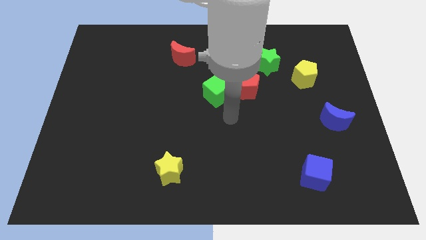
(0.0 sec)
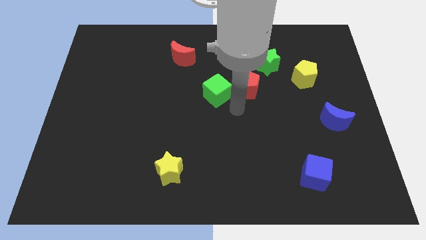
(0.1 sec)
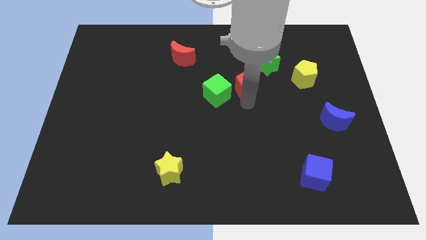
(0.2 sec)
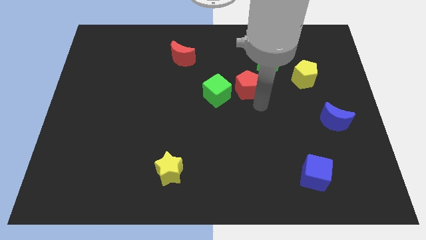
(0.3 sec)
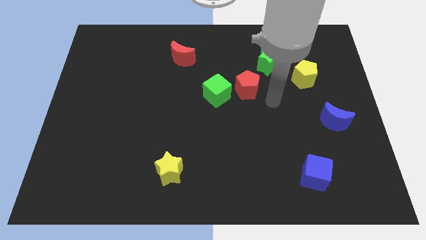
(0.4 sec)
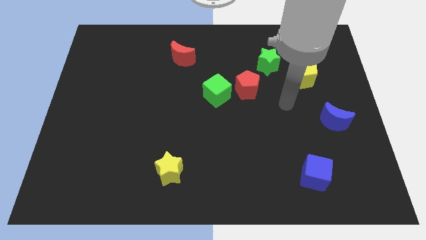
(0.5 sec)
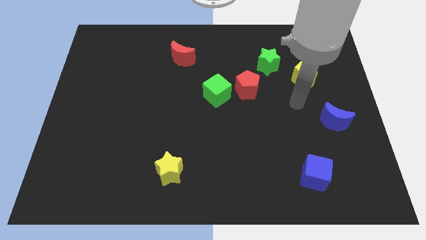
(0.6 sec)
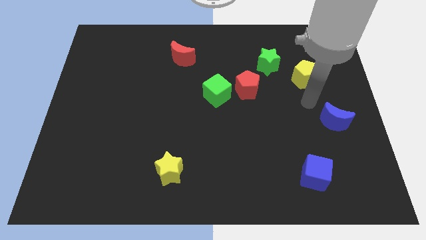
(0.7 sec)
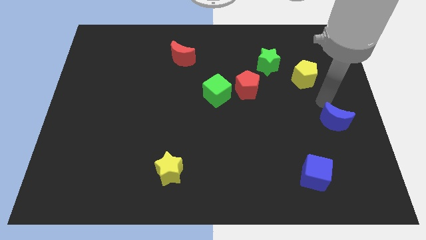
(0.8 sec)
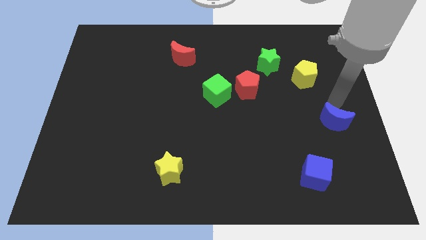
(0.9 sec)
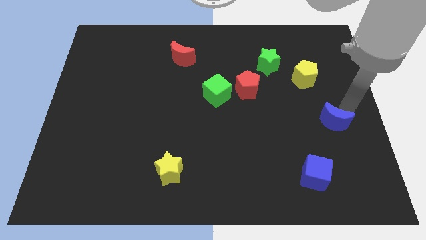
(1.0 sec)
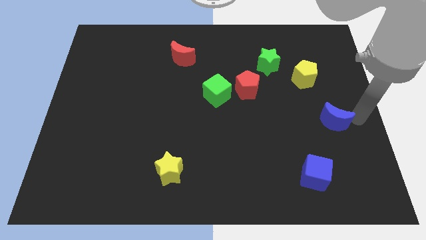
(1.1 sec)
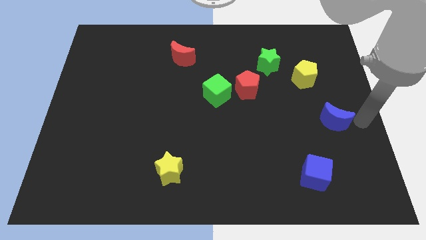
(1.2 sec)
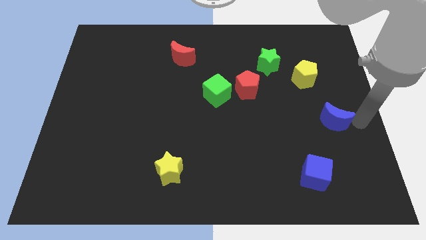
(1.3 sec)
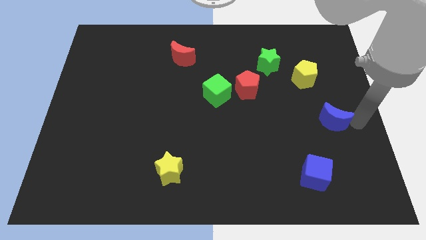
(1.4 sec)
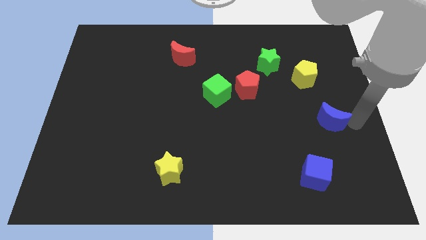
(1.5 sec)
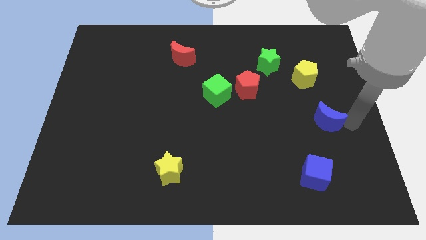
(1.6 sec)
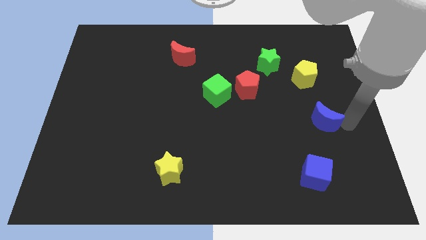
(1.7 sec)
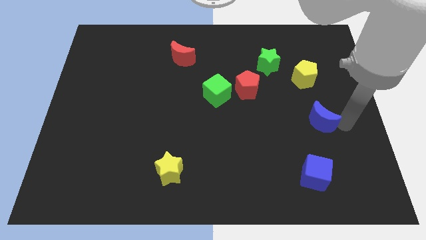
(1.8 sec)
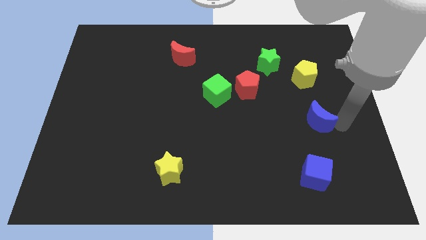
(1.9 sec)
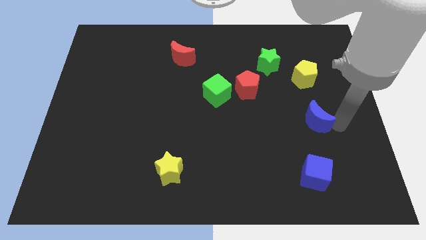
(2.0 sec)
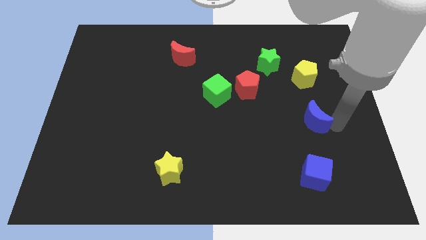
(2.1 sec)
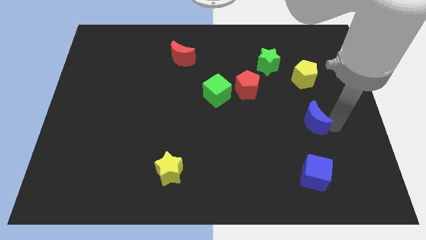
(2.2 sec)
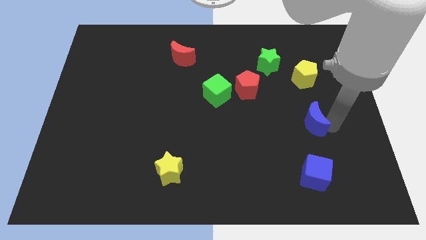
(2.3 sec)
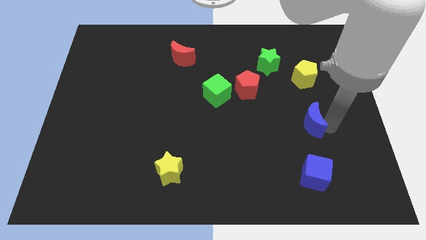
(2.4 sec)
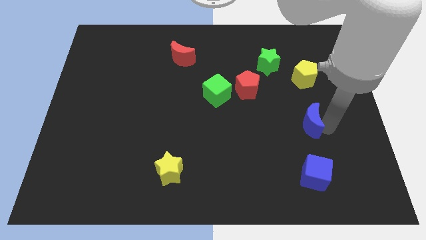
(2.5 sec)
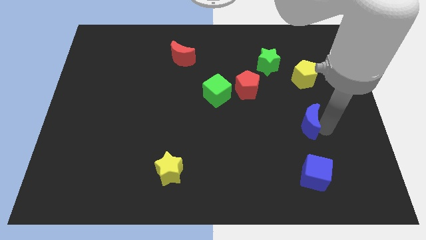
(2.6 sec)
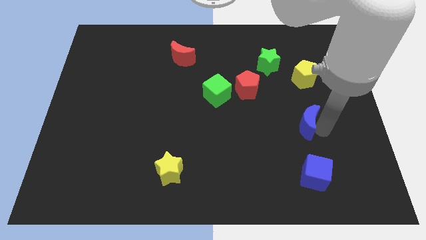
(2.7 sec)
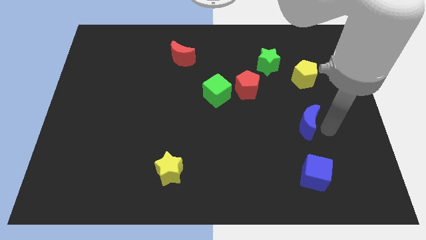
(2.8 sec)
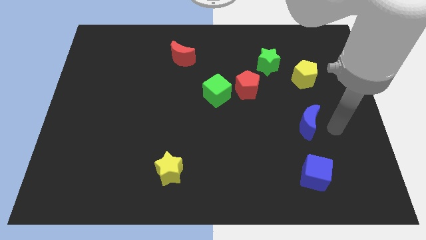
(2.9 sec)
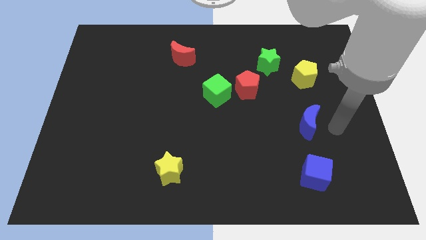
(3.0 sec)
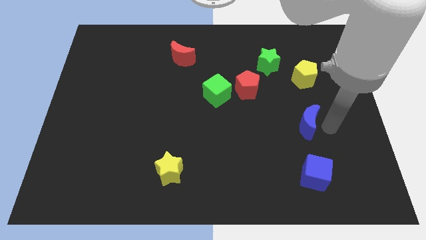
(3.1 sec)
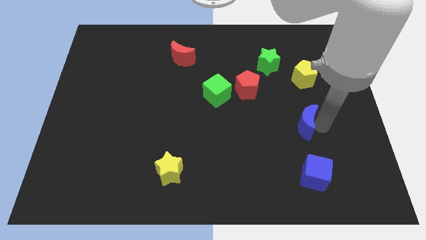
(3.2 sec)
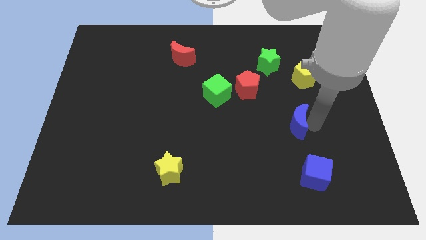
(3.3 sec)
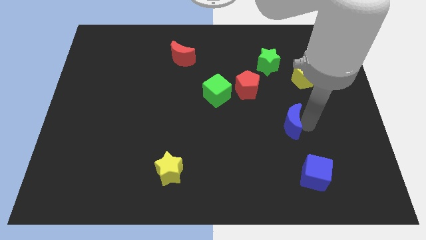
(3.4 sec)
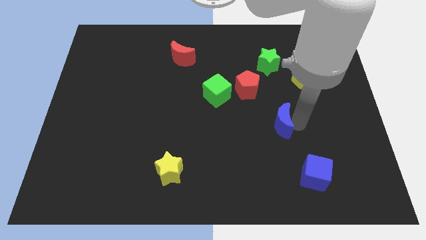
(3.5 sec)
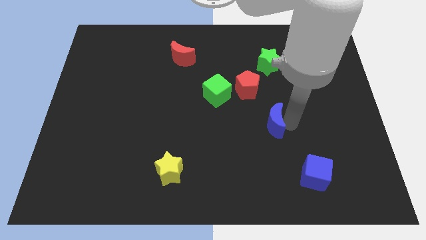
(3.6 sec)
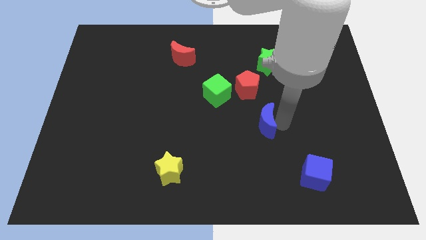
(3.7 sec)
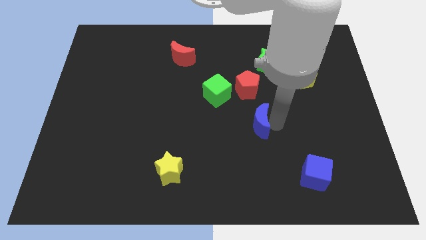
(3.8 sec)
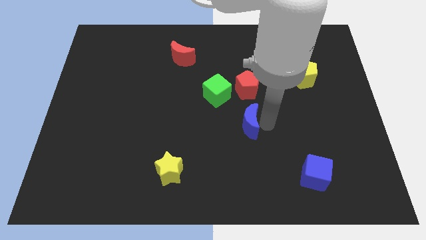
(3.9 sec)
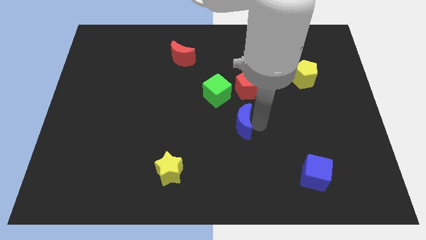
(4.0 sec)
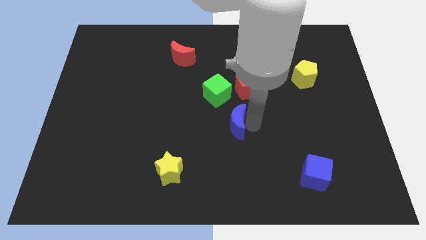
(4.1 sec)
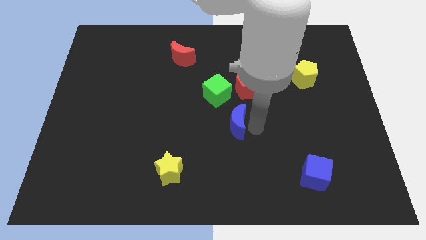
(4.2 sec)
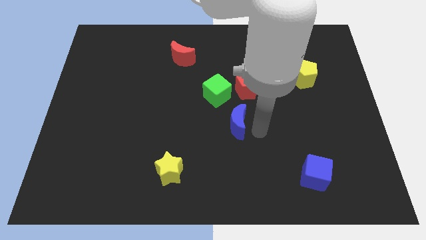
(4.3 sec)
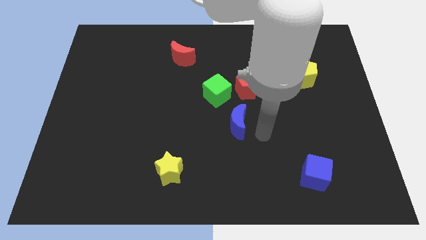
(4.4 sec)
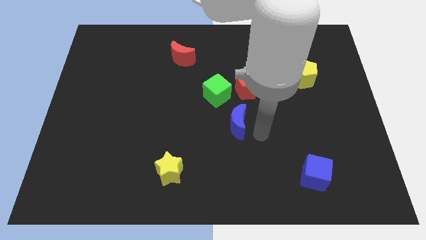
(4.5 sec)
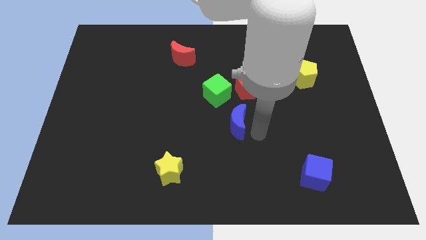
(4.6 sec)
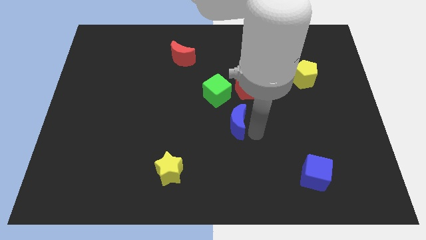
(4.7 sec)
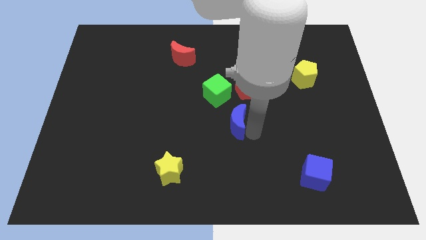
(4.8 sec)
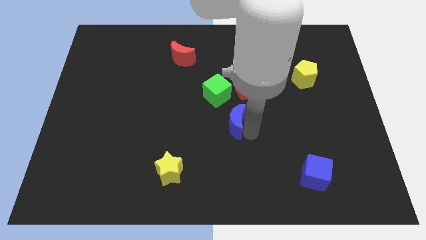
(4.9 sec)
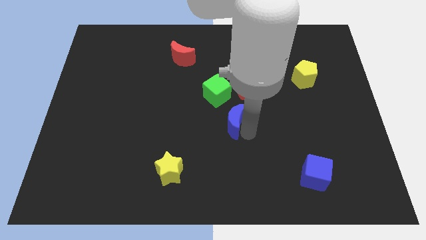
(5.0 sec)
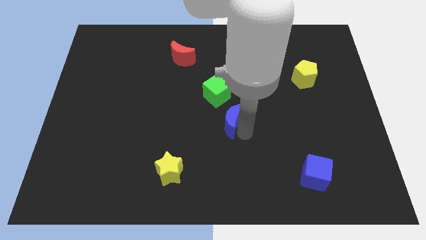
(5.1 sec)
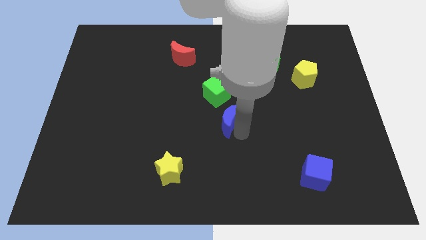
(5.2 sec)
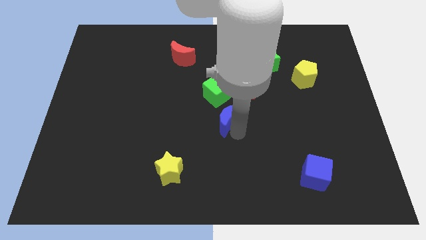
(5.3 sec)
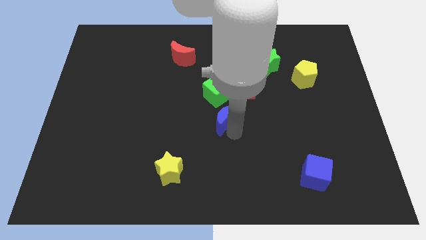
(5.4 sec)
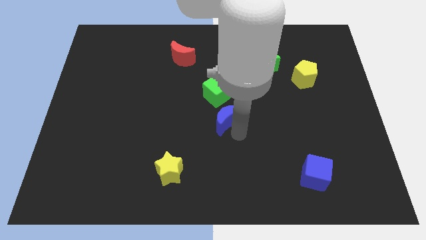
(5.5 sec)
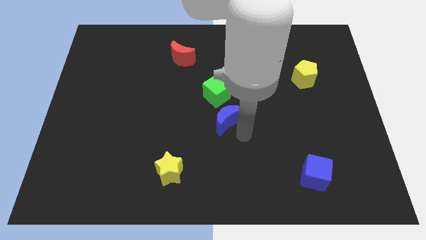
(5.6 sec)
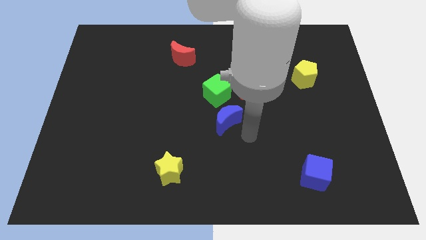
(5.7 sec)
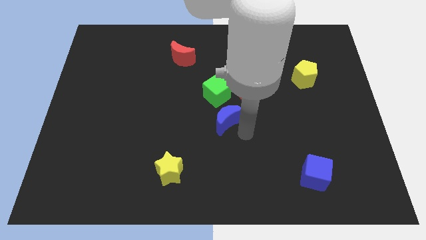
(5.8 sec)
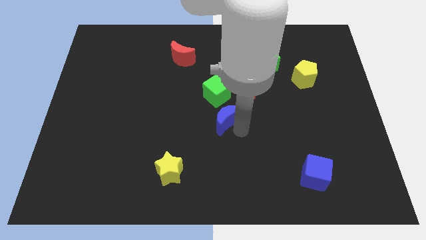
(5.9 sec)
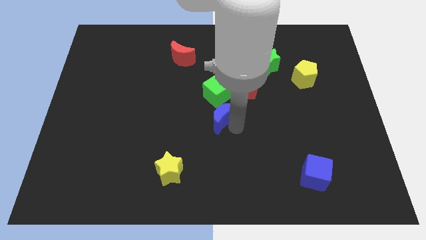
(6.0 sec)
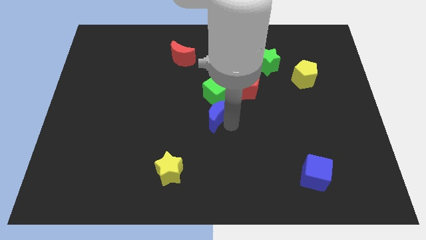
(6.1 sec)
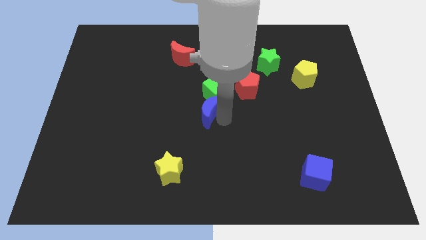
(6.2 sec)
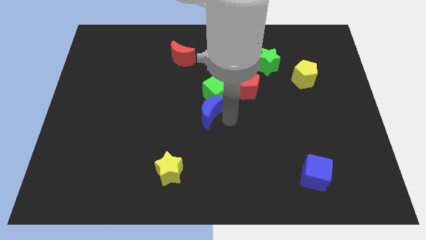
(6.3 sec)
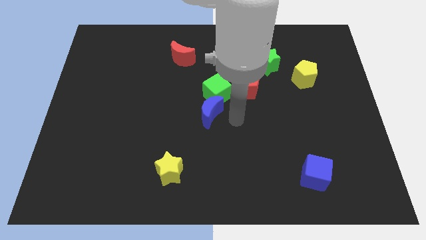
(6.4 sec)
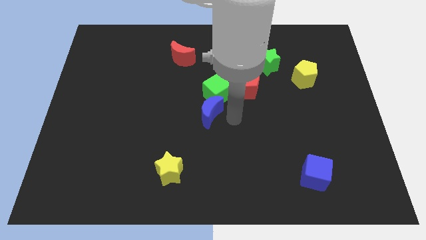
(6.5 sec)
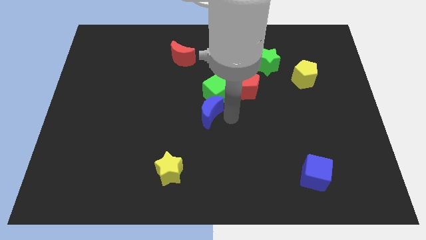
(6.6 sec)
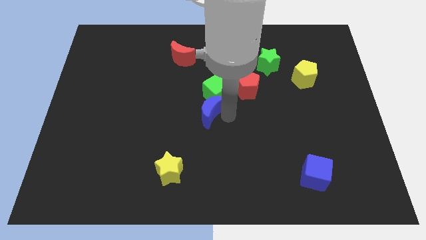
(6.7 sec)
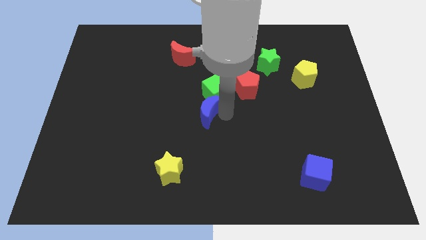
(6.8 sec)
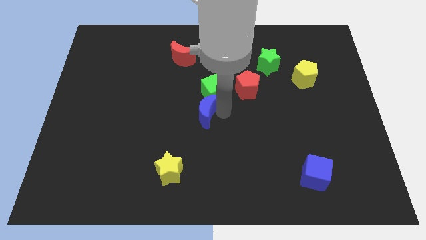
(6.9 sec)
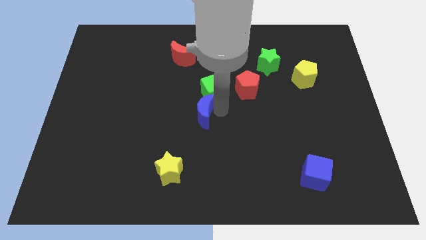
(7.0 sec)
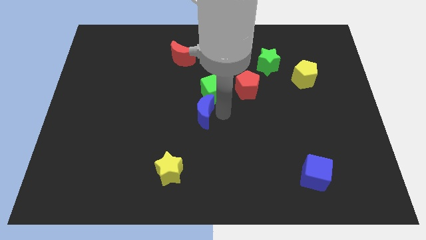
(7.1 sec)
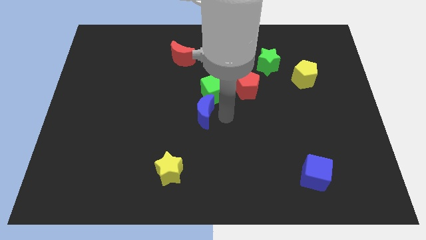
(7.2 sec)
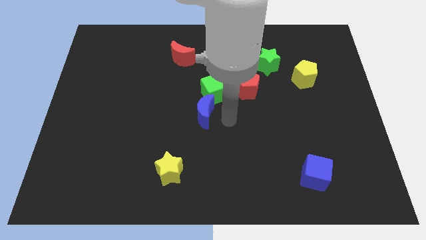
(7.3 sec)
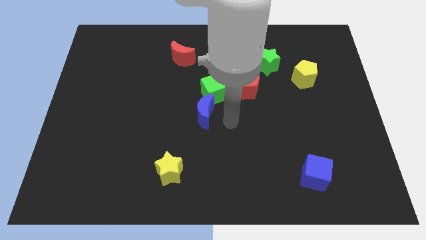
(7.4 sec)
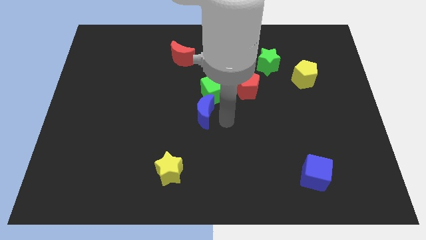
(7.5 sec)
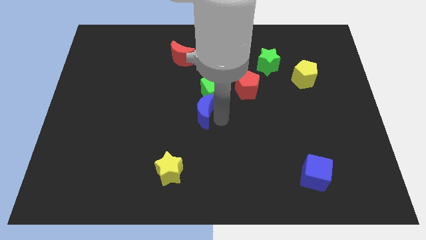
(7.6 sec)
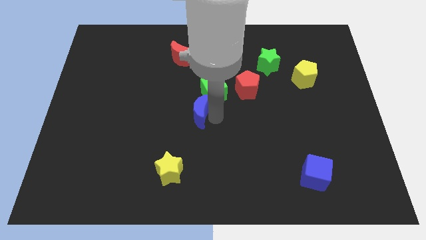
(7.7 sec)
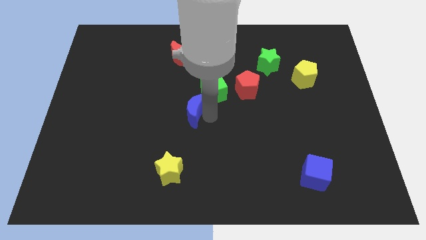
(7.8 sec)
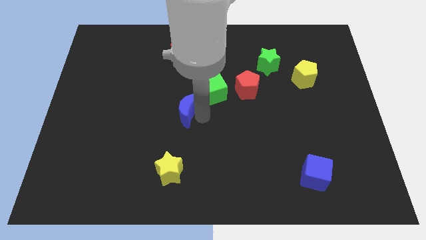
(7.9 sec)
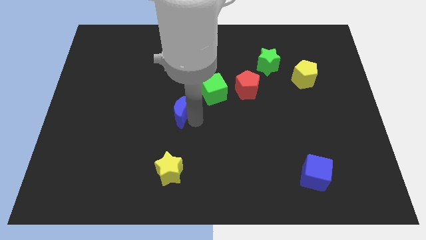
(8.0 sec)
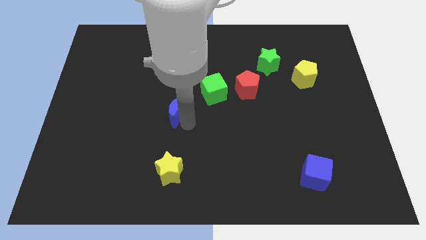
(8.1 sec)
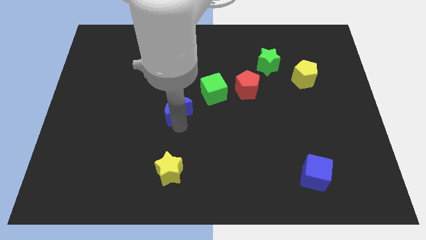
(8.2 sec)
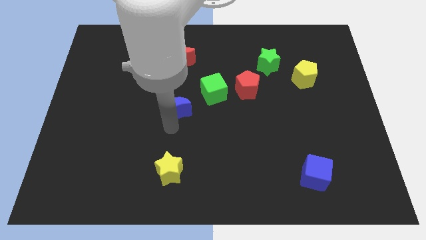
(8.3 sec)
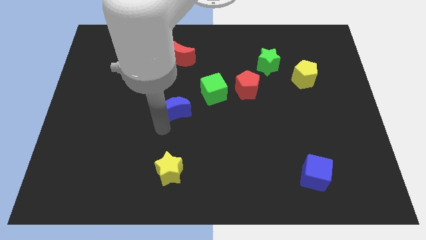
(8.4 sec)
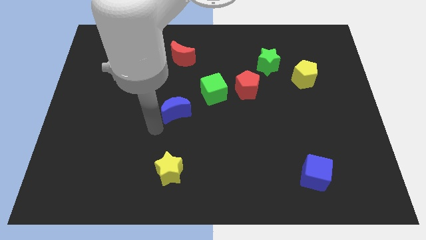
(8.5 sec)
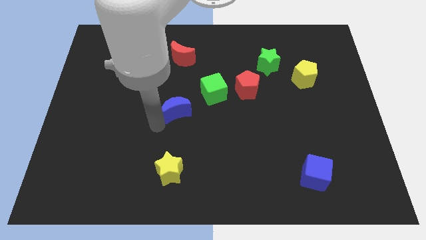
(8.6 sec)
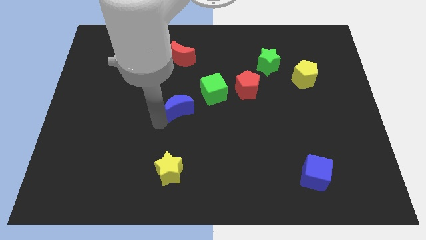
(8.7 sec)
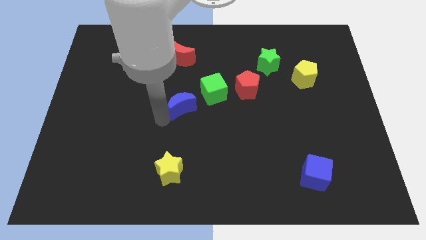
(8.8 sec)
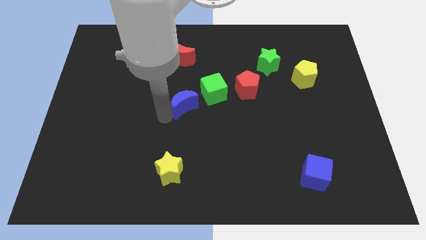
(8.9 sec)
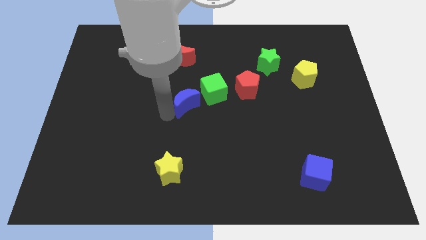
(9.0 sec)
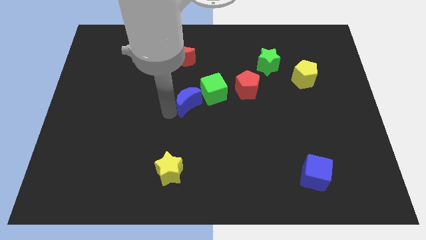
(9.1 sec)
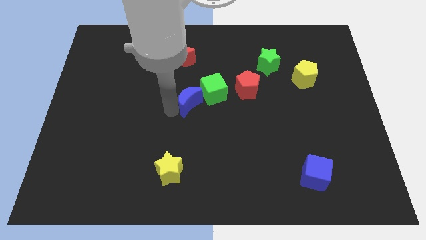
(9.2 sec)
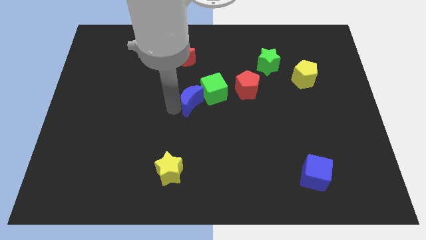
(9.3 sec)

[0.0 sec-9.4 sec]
put the blue moon to the left side of the red pentagon
